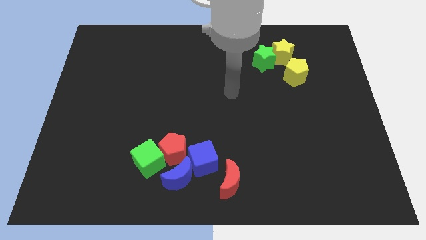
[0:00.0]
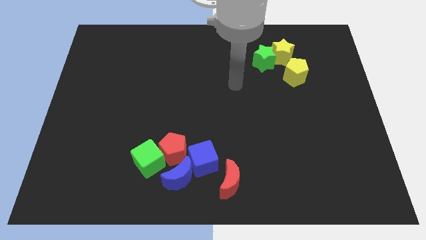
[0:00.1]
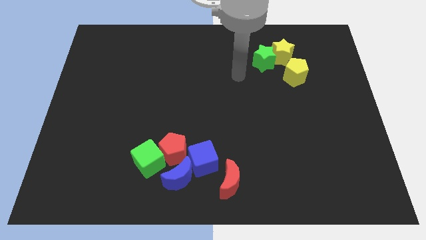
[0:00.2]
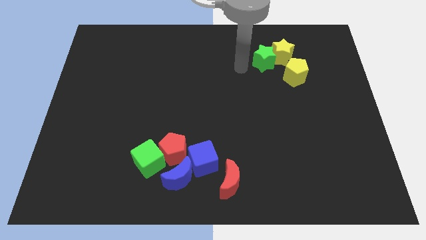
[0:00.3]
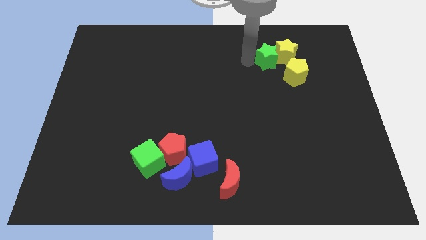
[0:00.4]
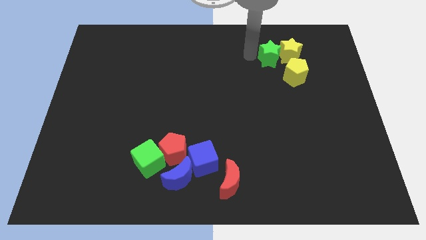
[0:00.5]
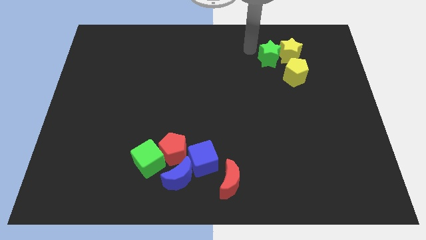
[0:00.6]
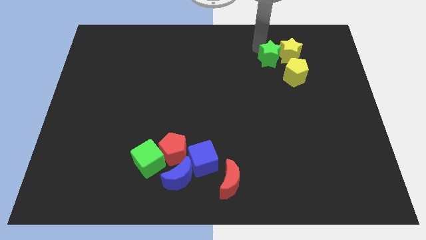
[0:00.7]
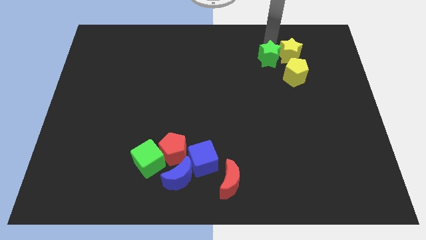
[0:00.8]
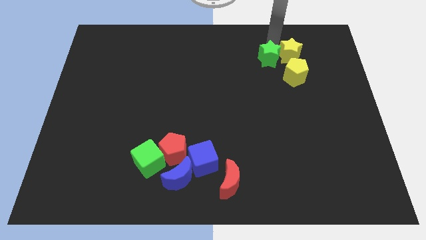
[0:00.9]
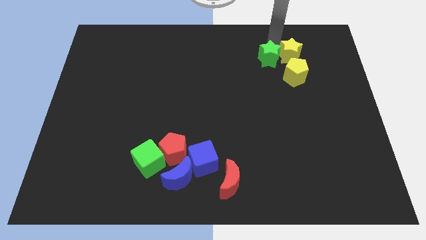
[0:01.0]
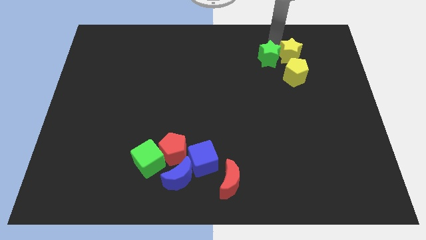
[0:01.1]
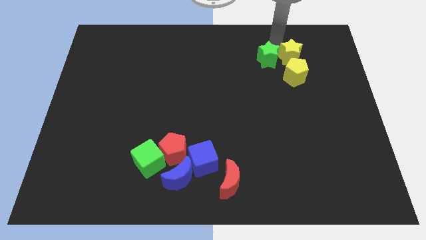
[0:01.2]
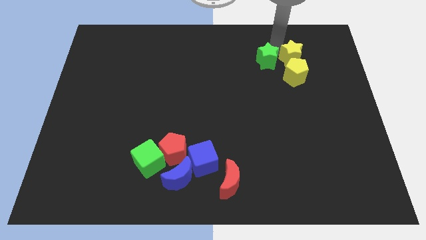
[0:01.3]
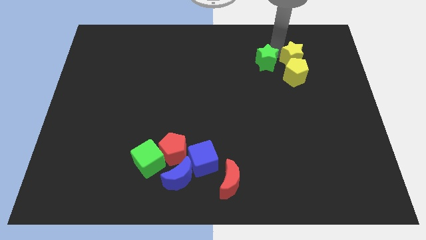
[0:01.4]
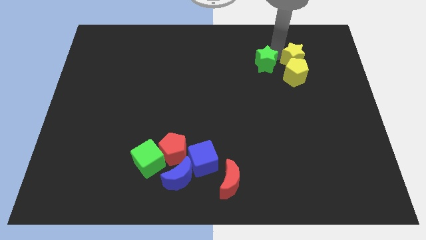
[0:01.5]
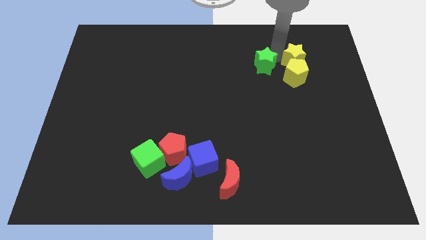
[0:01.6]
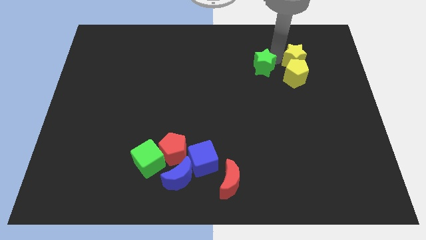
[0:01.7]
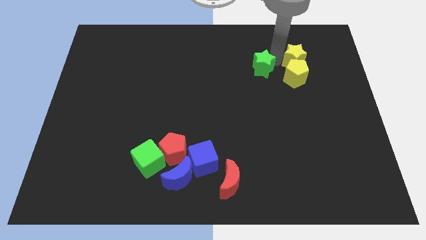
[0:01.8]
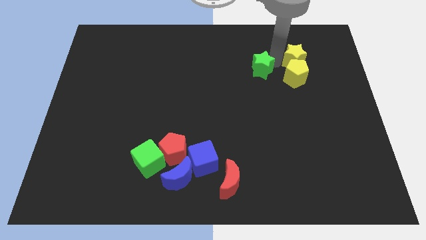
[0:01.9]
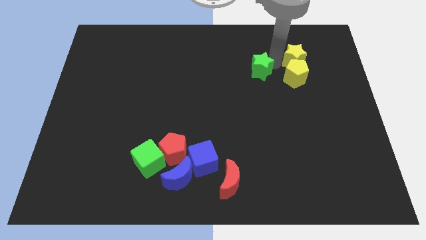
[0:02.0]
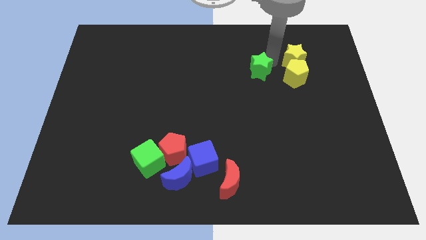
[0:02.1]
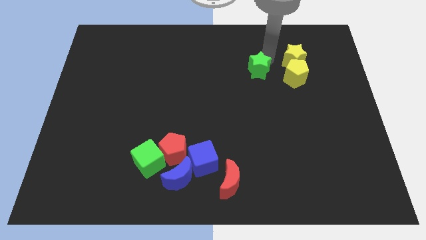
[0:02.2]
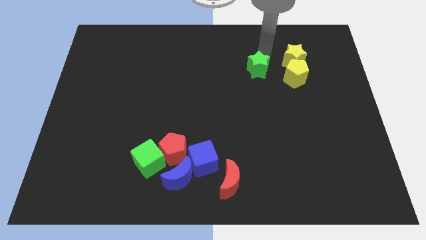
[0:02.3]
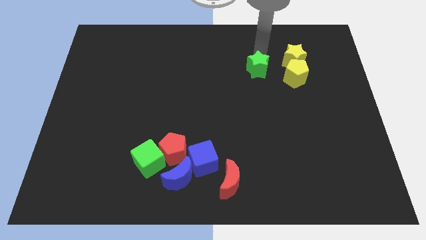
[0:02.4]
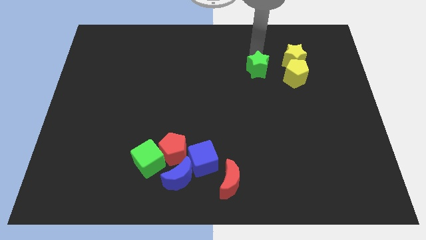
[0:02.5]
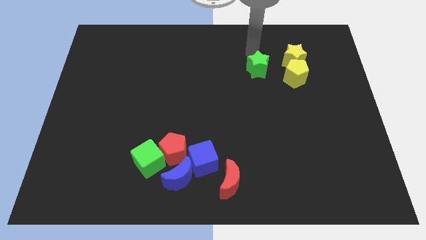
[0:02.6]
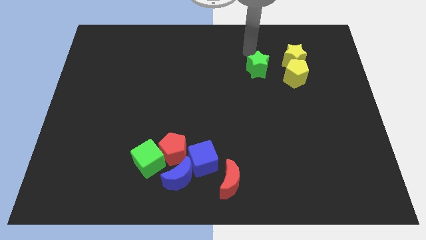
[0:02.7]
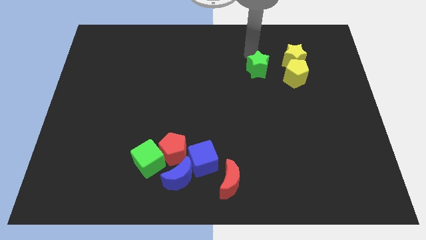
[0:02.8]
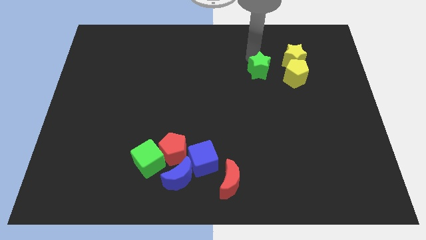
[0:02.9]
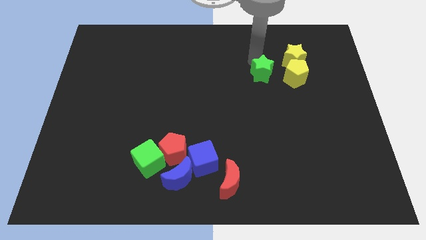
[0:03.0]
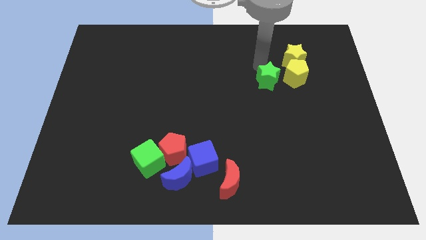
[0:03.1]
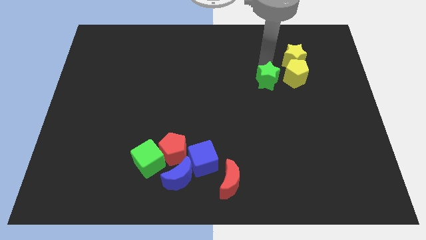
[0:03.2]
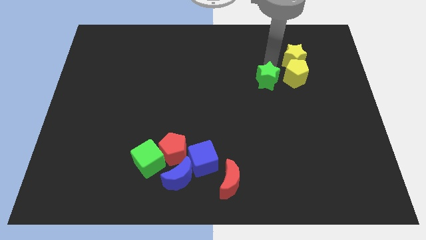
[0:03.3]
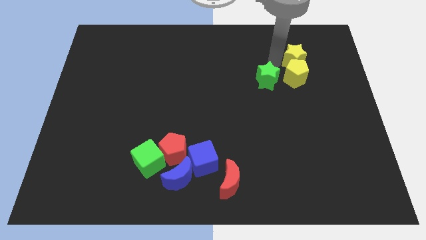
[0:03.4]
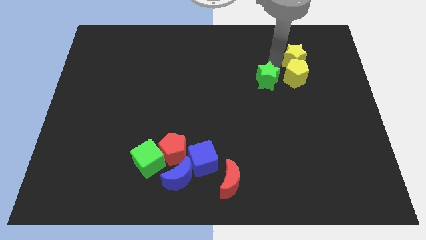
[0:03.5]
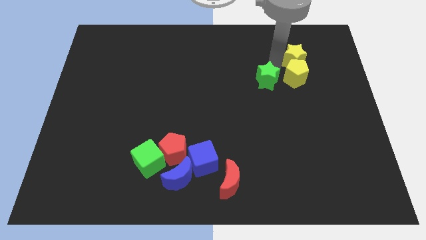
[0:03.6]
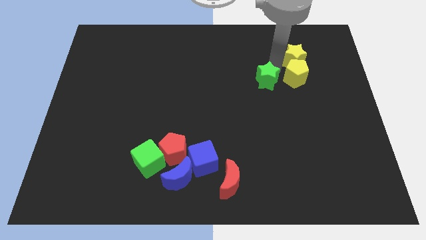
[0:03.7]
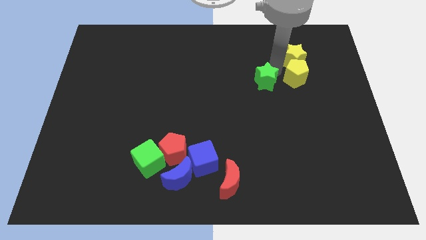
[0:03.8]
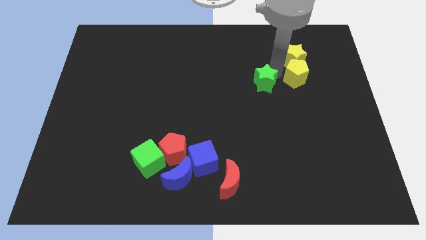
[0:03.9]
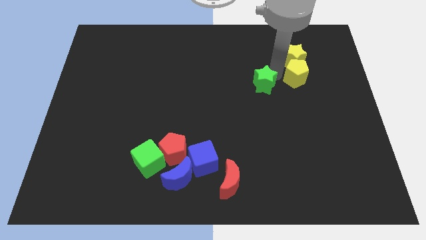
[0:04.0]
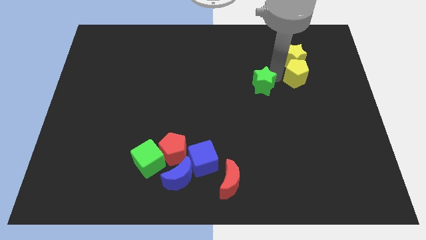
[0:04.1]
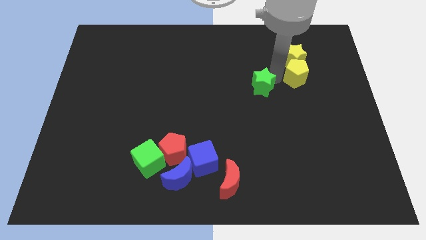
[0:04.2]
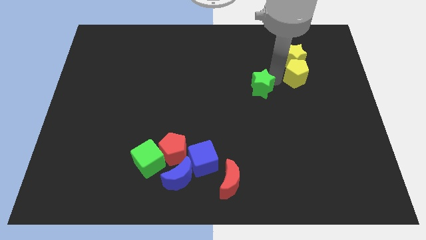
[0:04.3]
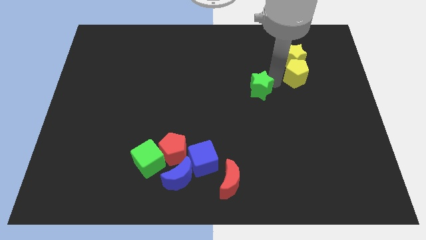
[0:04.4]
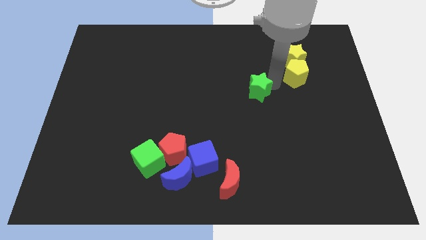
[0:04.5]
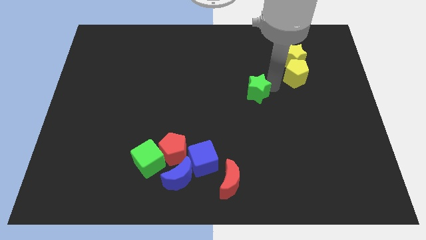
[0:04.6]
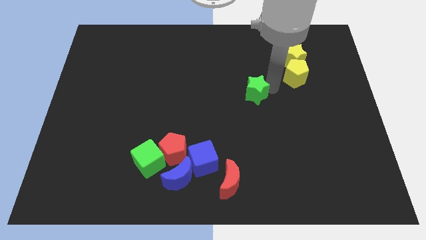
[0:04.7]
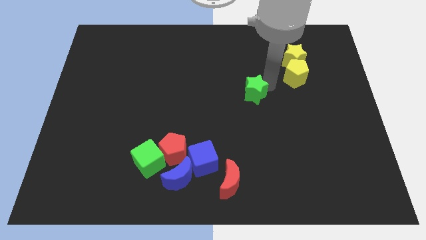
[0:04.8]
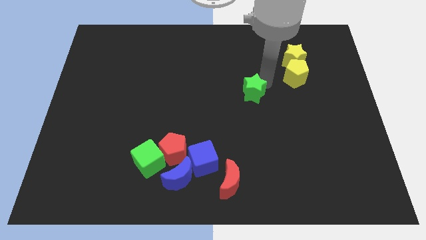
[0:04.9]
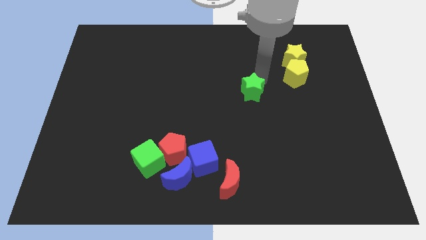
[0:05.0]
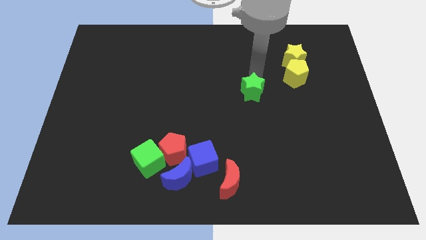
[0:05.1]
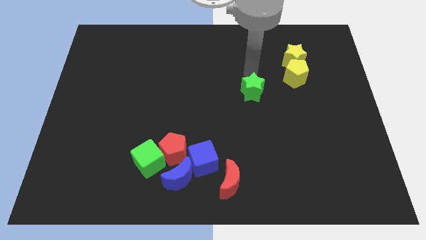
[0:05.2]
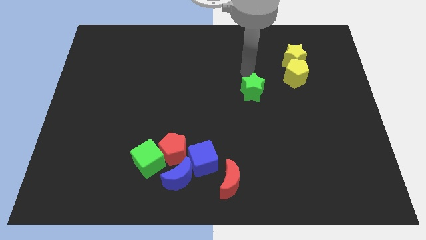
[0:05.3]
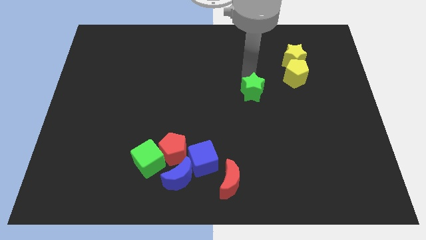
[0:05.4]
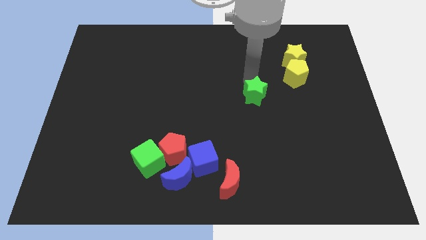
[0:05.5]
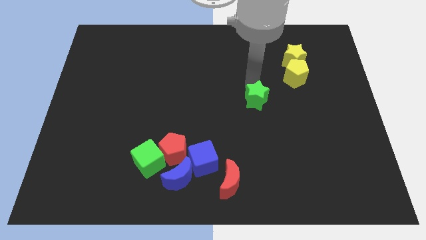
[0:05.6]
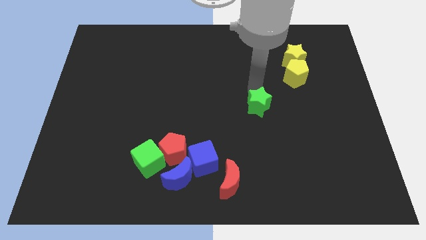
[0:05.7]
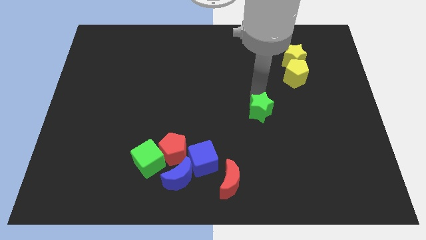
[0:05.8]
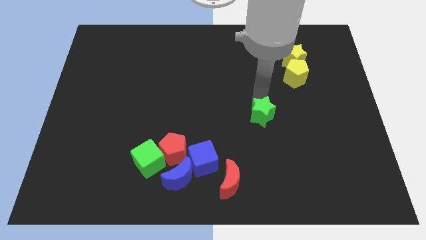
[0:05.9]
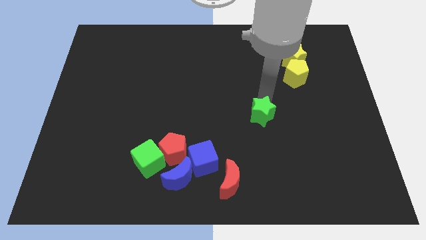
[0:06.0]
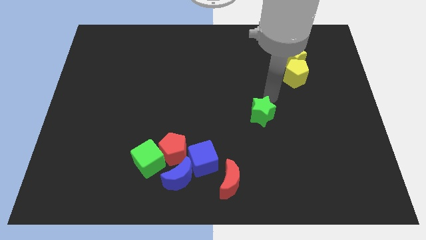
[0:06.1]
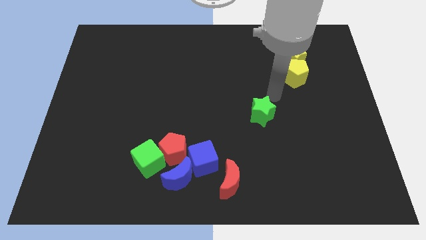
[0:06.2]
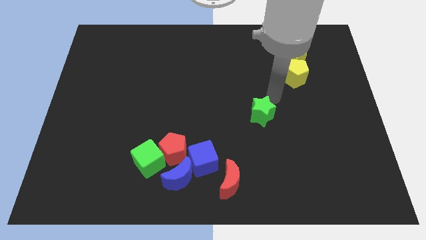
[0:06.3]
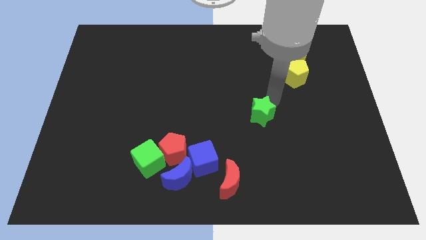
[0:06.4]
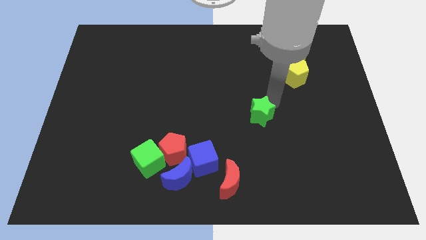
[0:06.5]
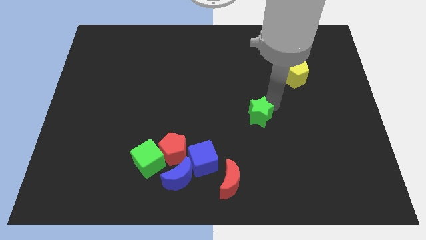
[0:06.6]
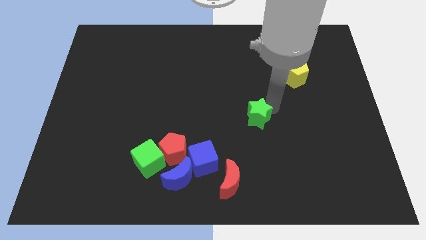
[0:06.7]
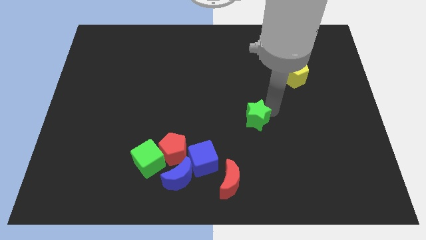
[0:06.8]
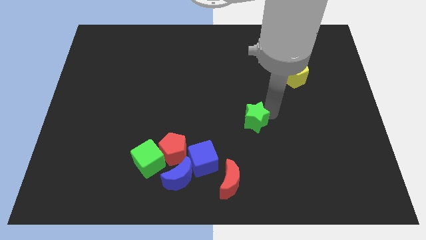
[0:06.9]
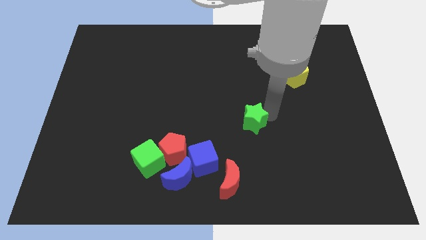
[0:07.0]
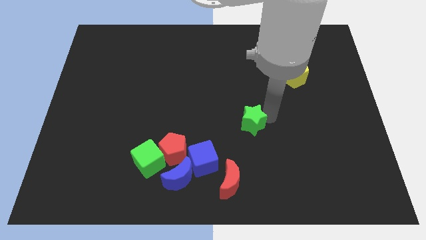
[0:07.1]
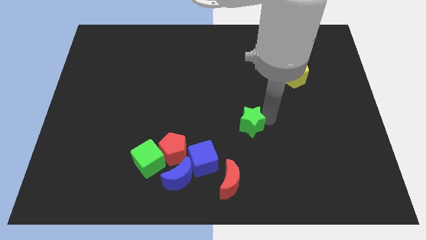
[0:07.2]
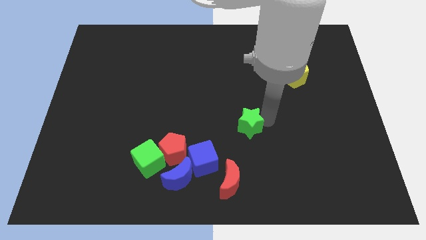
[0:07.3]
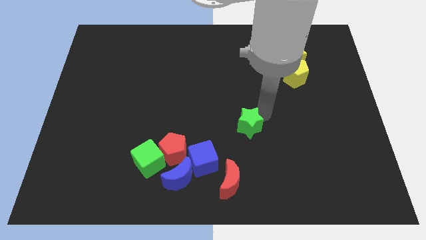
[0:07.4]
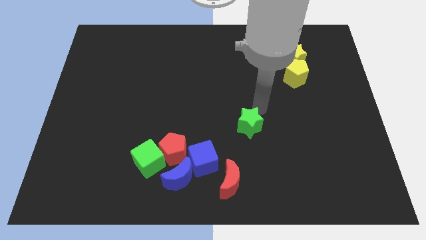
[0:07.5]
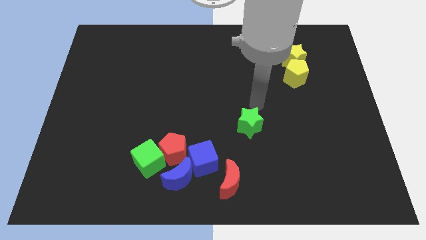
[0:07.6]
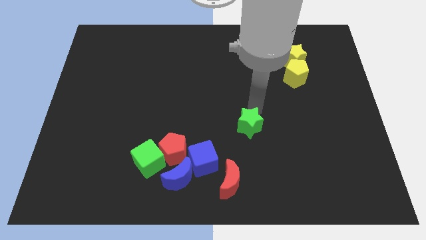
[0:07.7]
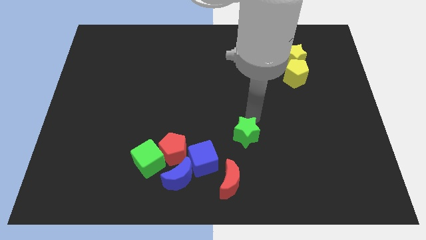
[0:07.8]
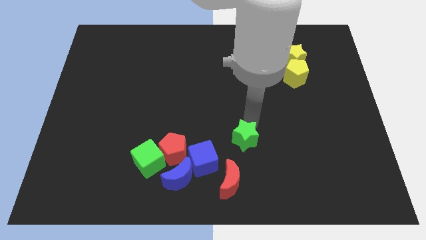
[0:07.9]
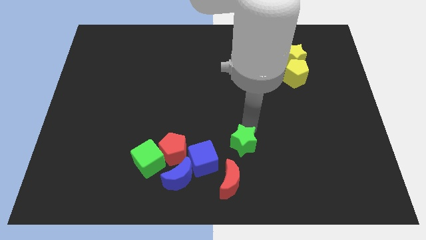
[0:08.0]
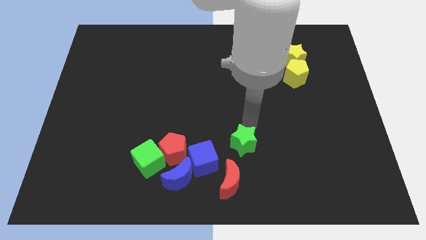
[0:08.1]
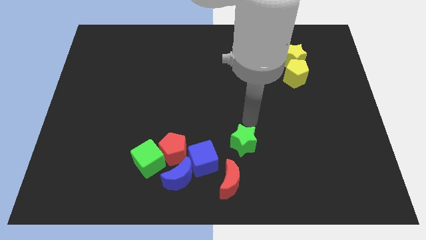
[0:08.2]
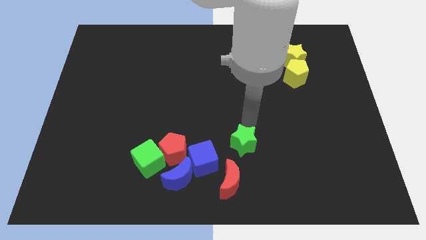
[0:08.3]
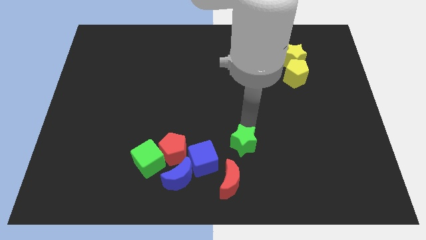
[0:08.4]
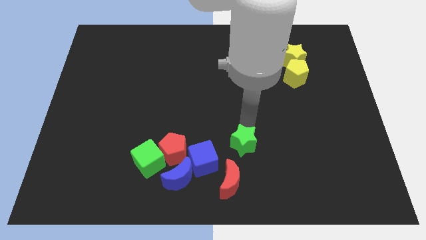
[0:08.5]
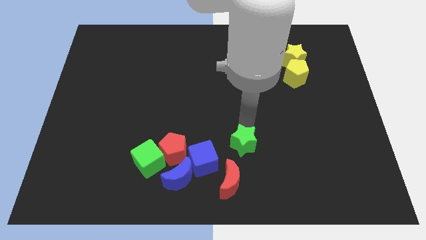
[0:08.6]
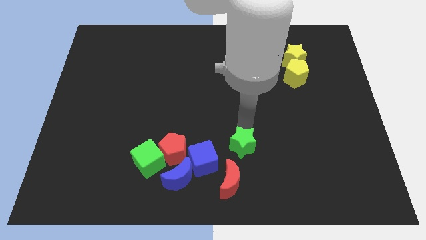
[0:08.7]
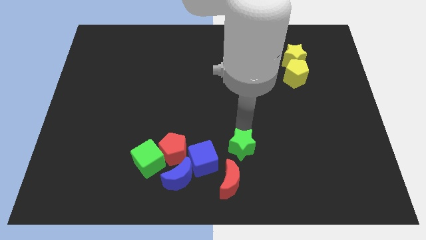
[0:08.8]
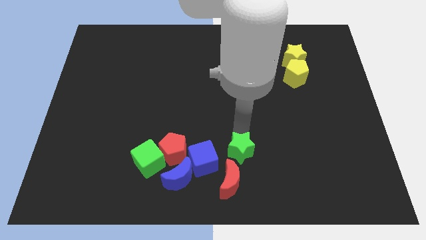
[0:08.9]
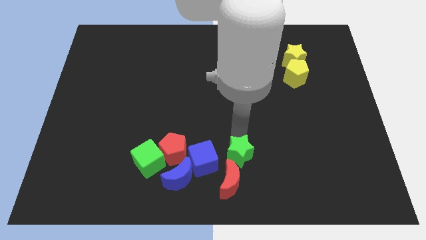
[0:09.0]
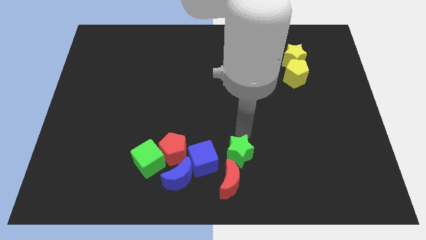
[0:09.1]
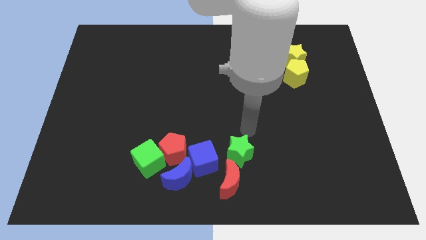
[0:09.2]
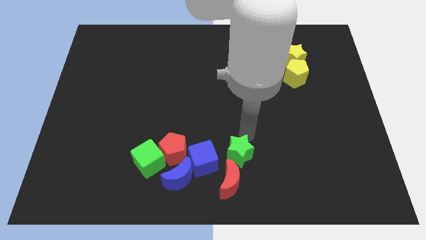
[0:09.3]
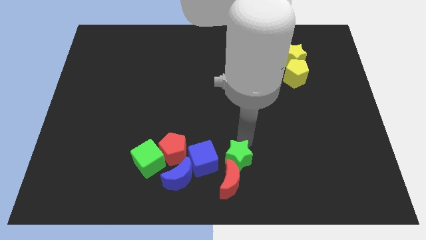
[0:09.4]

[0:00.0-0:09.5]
push the green star to the red moon
